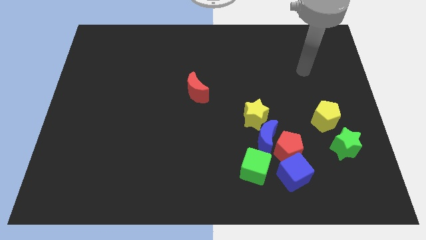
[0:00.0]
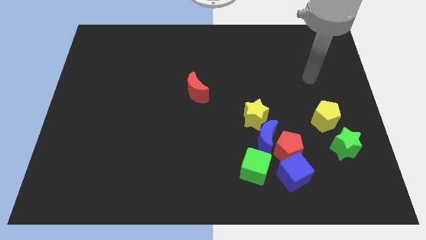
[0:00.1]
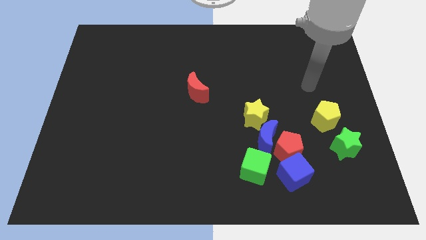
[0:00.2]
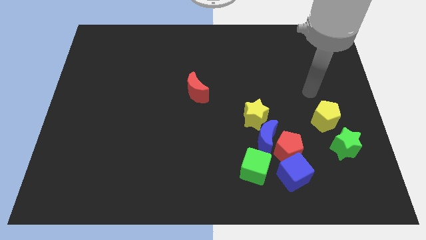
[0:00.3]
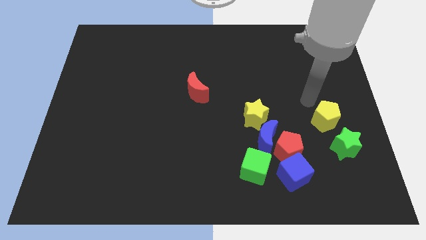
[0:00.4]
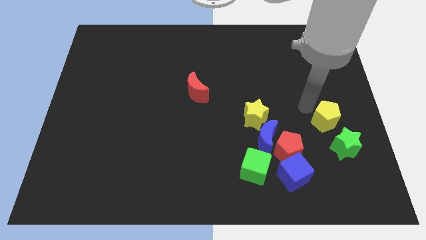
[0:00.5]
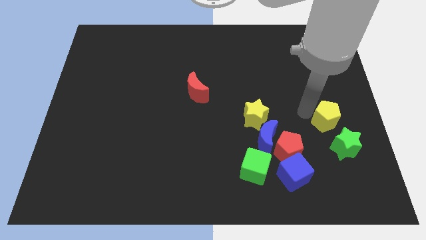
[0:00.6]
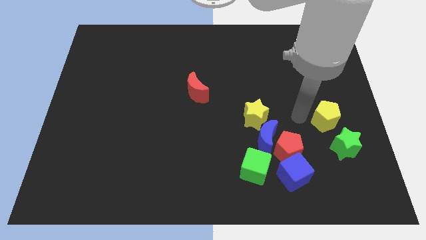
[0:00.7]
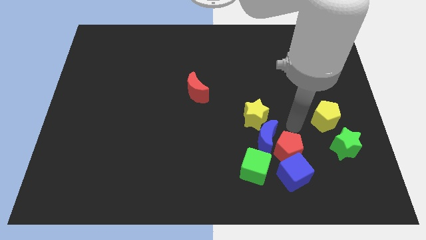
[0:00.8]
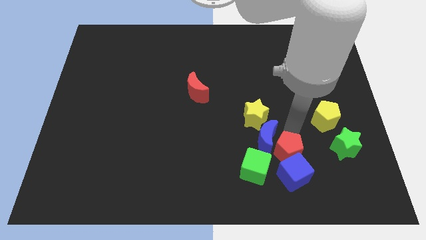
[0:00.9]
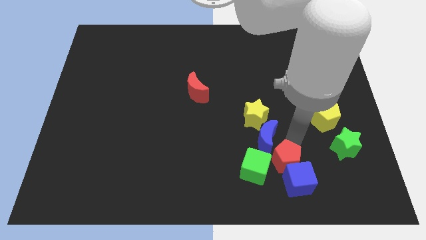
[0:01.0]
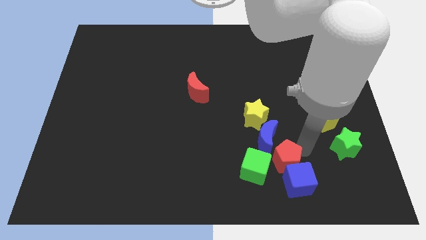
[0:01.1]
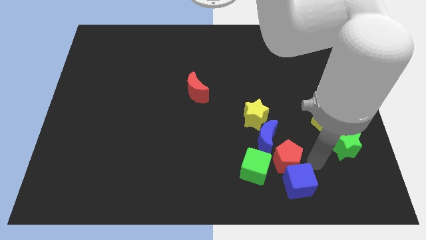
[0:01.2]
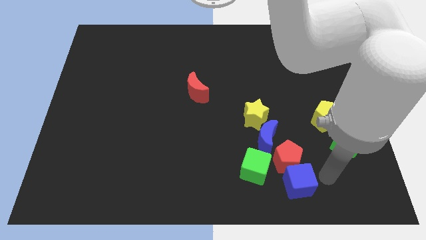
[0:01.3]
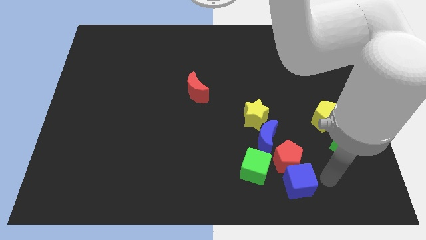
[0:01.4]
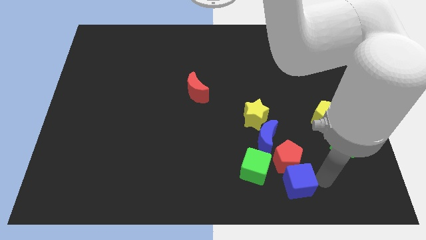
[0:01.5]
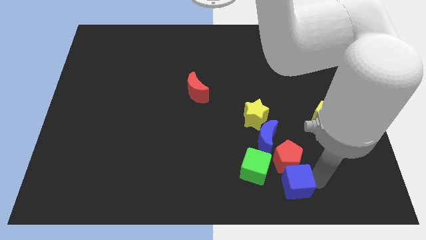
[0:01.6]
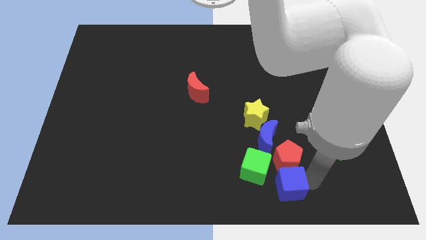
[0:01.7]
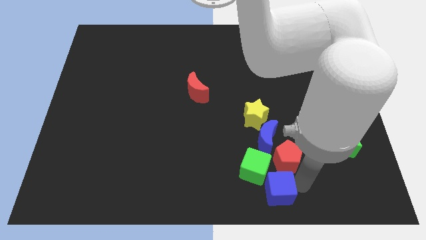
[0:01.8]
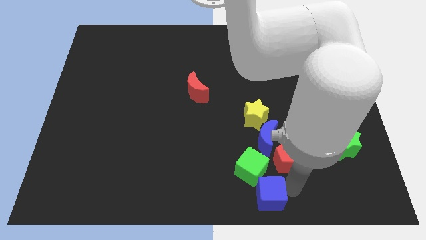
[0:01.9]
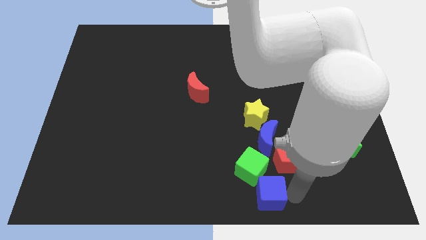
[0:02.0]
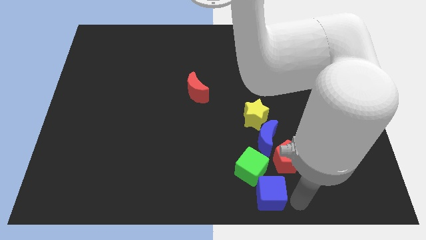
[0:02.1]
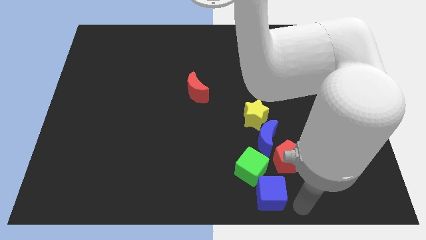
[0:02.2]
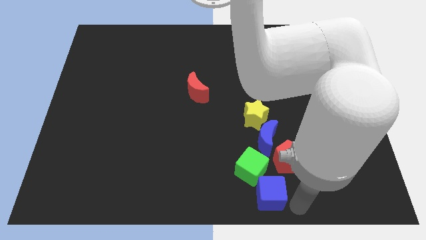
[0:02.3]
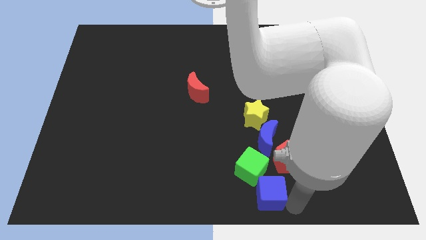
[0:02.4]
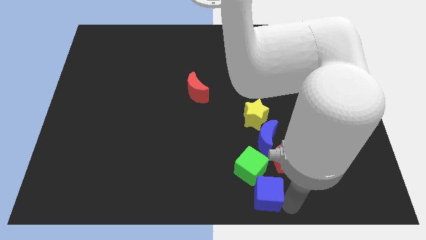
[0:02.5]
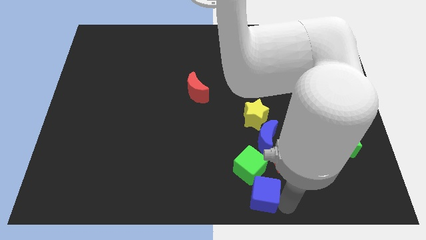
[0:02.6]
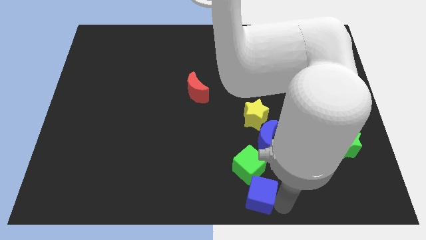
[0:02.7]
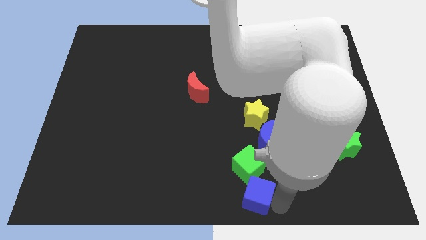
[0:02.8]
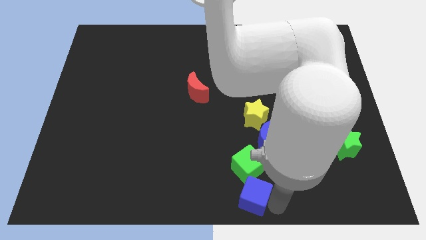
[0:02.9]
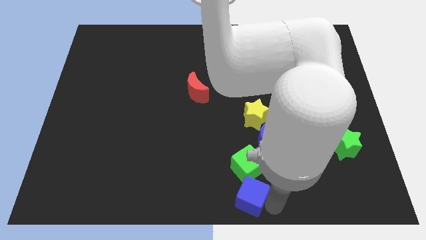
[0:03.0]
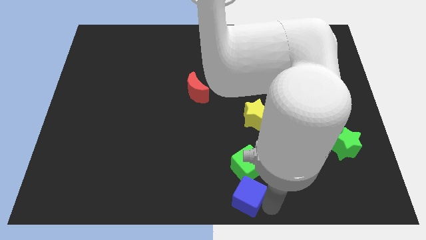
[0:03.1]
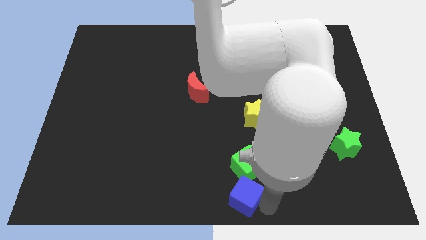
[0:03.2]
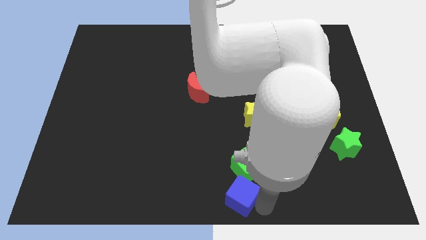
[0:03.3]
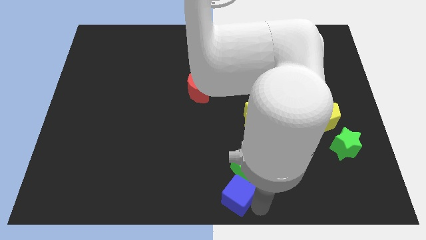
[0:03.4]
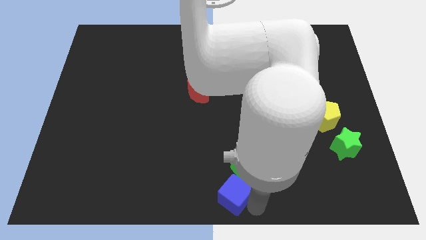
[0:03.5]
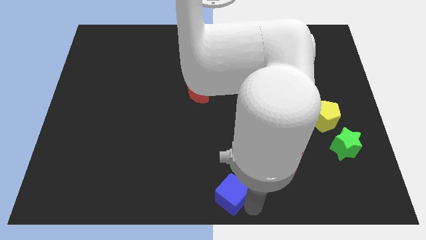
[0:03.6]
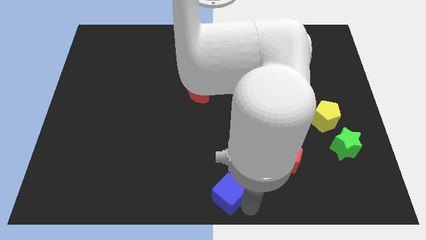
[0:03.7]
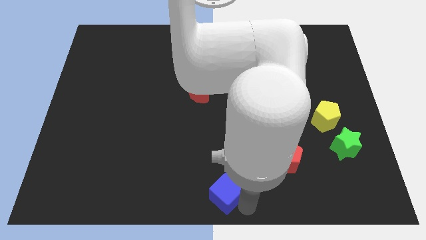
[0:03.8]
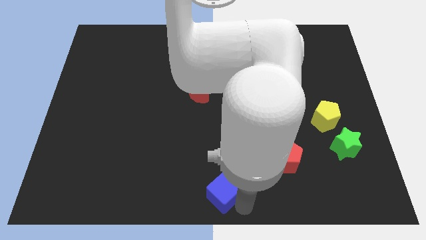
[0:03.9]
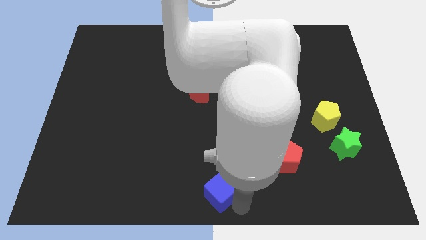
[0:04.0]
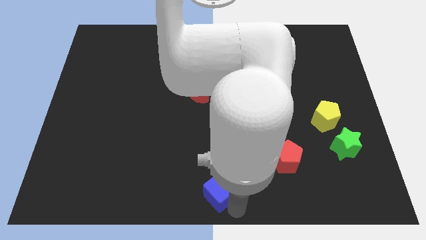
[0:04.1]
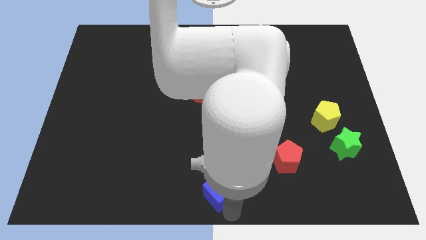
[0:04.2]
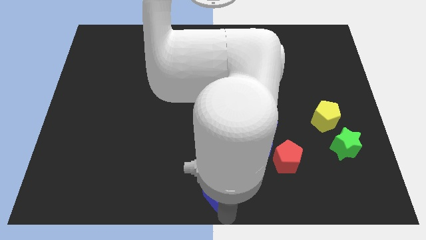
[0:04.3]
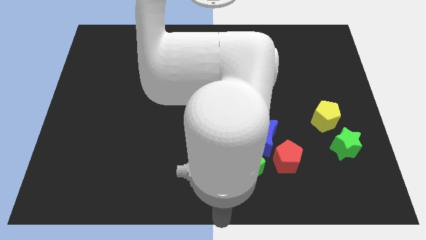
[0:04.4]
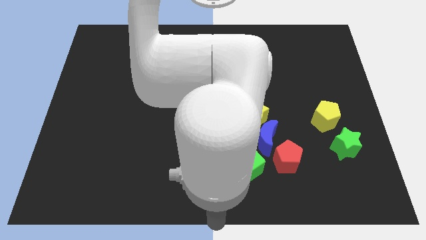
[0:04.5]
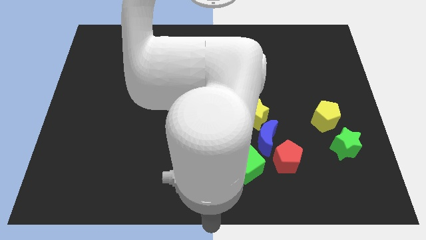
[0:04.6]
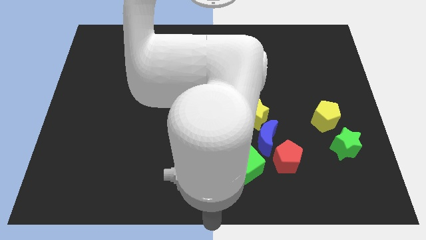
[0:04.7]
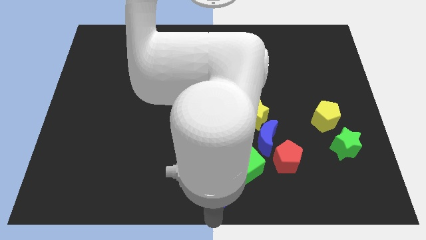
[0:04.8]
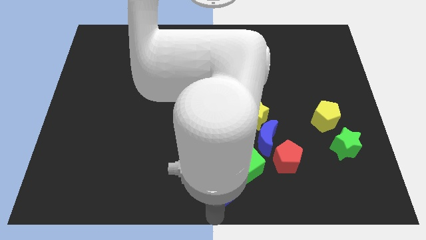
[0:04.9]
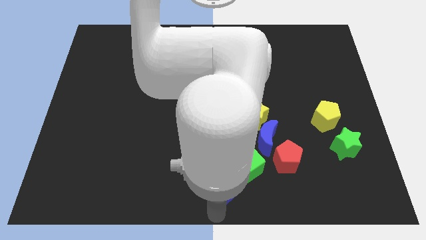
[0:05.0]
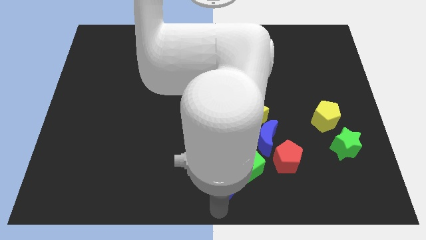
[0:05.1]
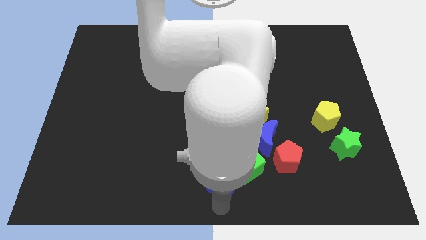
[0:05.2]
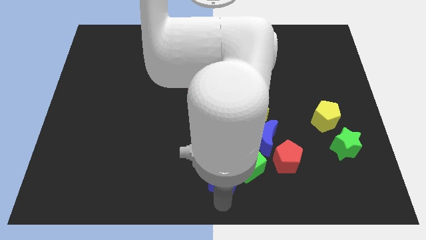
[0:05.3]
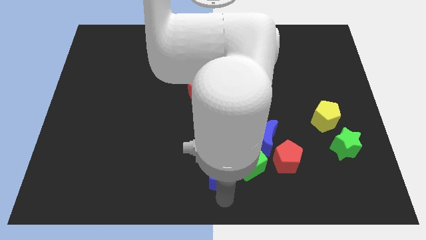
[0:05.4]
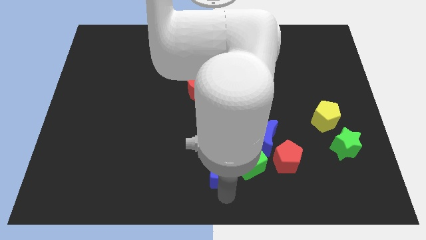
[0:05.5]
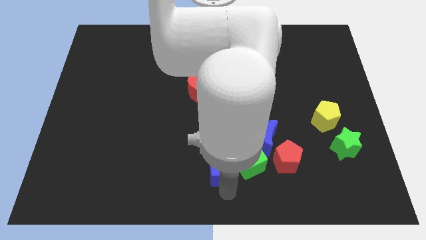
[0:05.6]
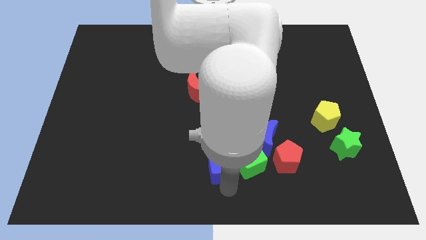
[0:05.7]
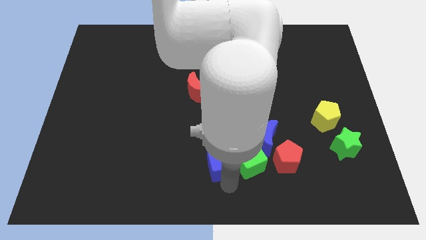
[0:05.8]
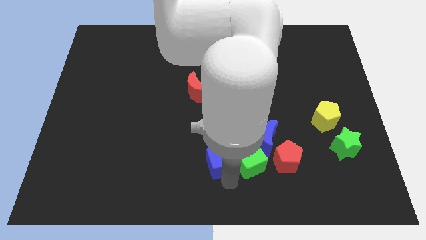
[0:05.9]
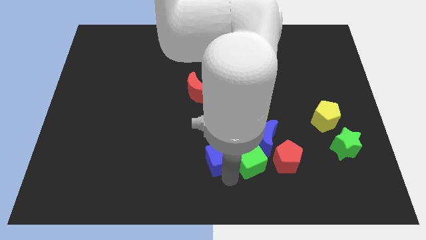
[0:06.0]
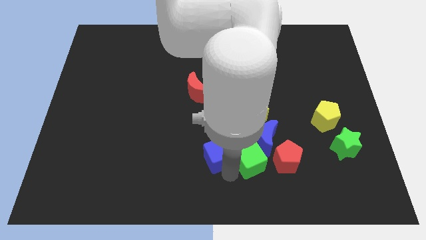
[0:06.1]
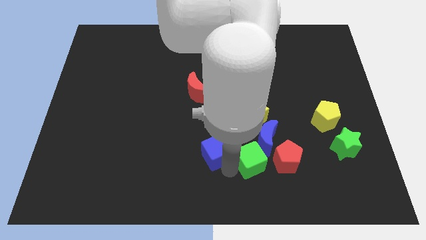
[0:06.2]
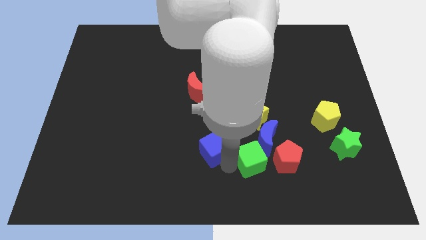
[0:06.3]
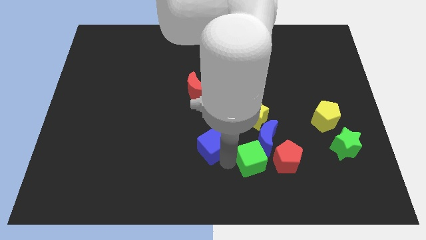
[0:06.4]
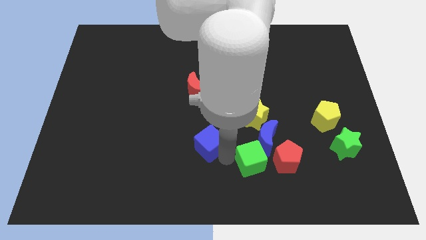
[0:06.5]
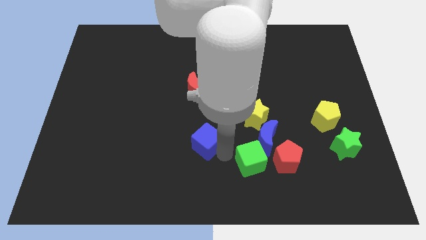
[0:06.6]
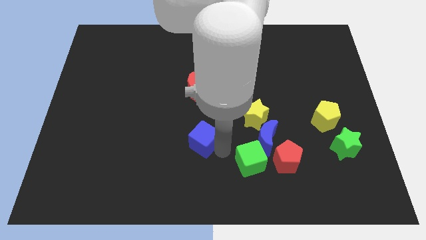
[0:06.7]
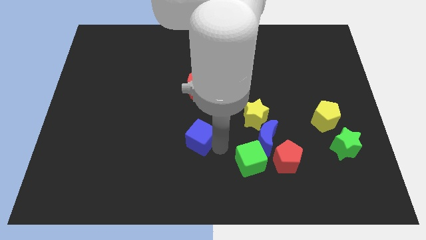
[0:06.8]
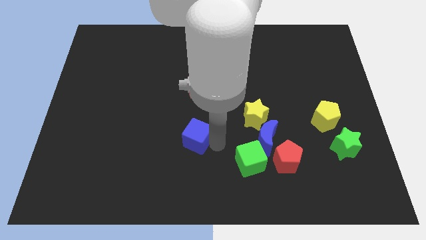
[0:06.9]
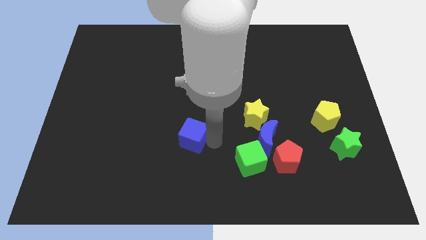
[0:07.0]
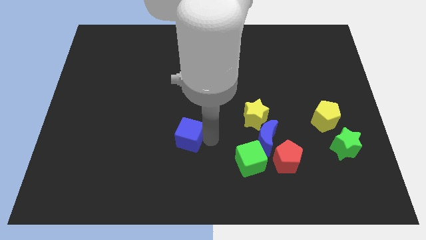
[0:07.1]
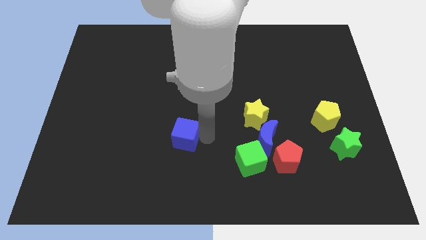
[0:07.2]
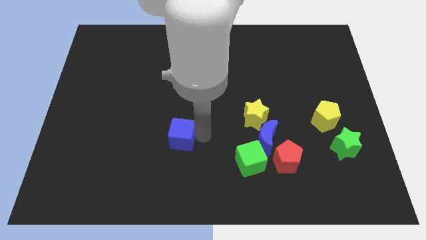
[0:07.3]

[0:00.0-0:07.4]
slide the blue cube left

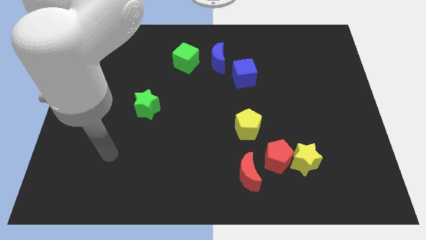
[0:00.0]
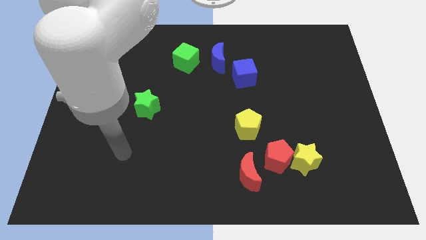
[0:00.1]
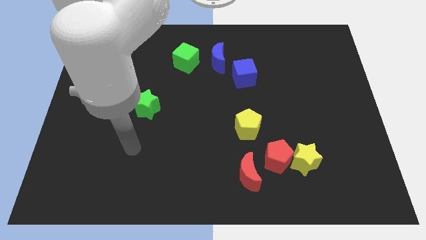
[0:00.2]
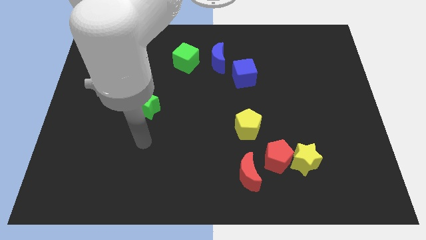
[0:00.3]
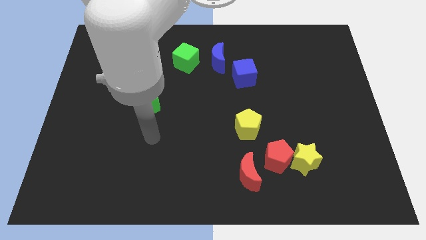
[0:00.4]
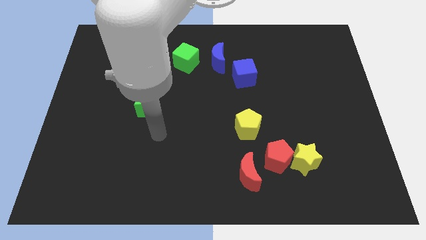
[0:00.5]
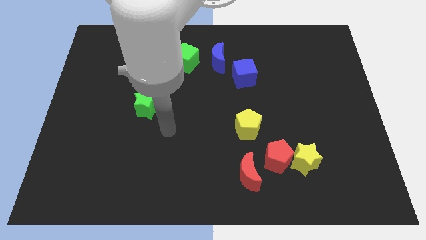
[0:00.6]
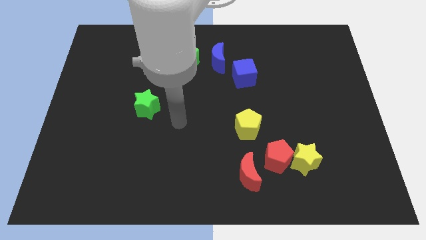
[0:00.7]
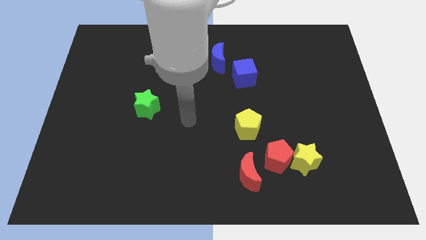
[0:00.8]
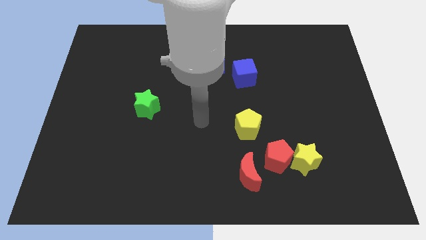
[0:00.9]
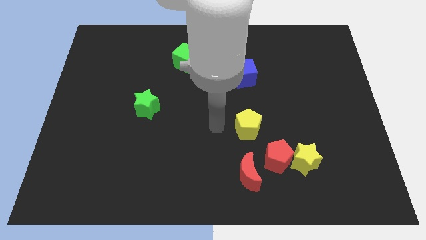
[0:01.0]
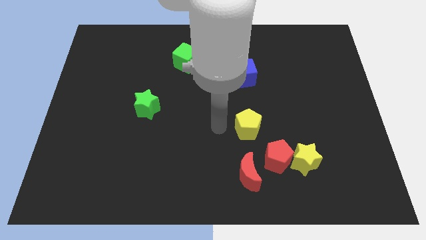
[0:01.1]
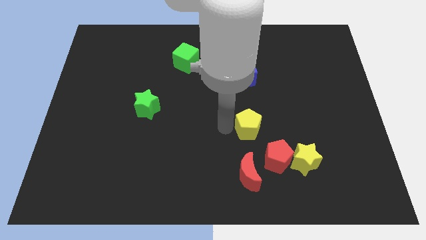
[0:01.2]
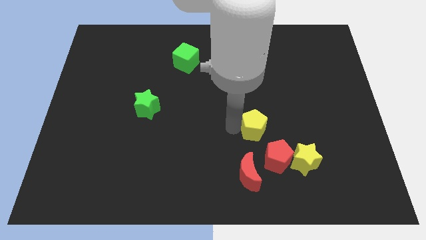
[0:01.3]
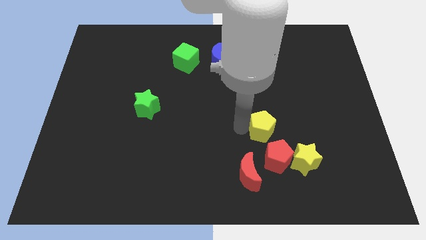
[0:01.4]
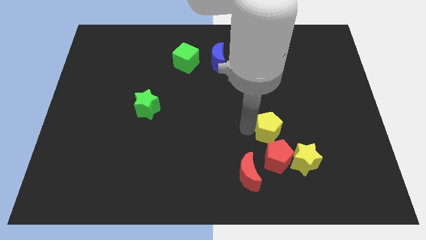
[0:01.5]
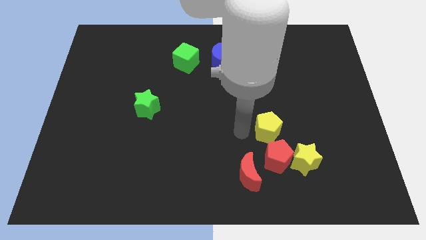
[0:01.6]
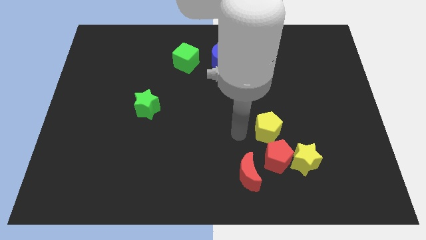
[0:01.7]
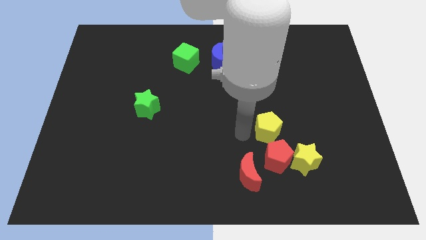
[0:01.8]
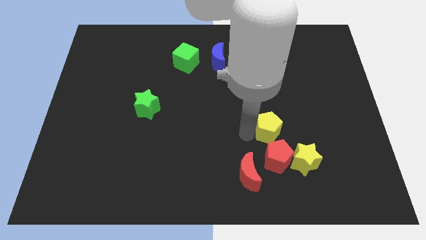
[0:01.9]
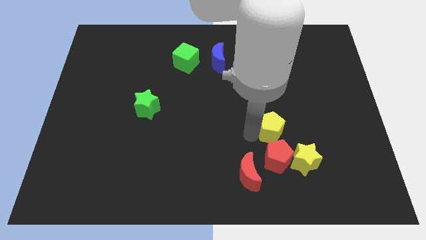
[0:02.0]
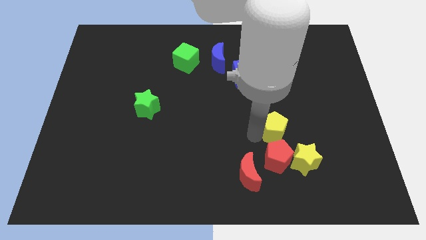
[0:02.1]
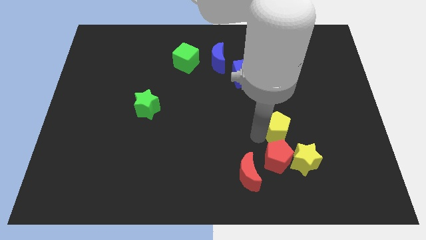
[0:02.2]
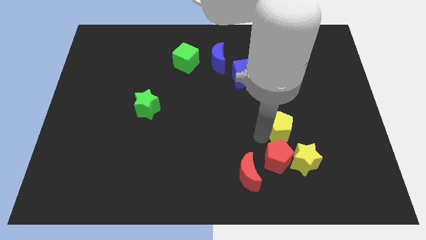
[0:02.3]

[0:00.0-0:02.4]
slightly slide the yellow pentagon to the right
